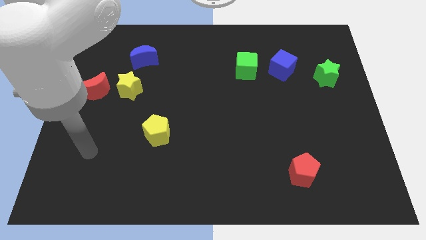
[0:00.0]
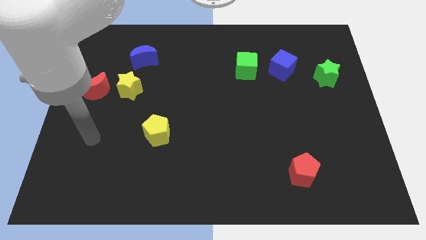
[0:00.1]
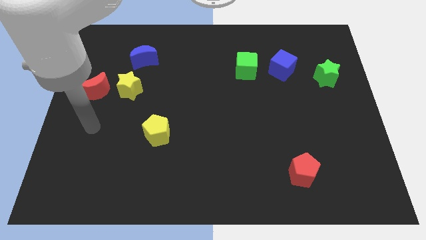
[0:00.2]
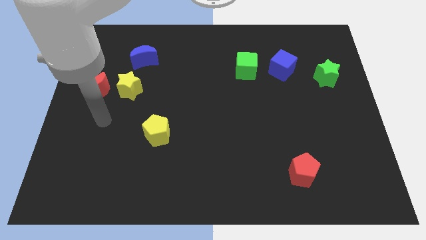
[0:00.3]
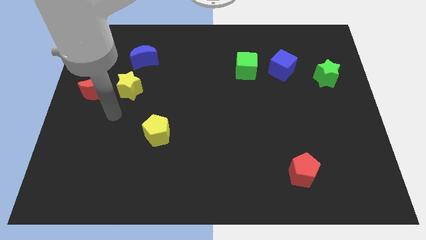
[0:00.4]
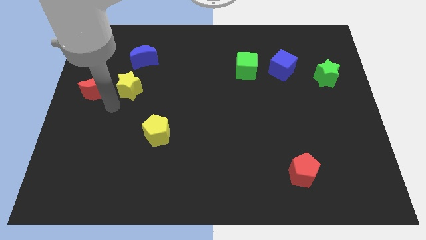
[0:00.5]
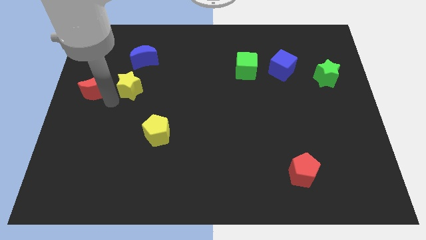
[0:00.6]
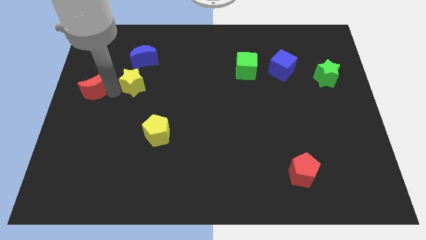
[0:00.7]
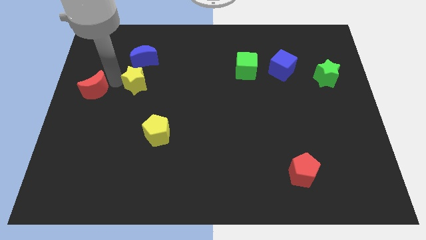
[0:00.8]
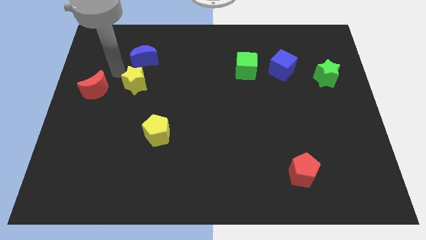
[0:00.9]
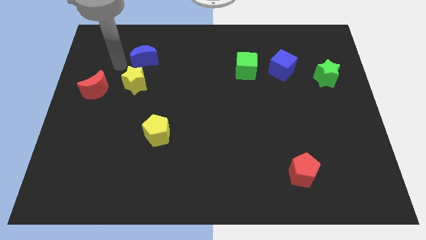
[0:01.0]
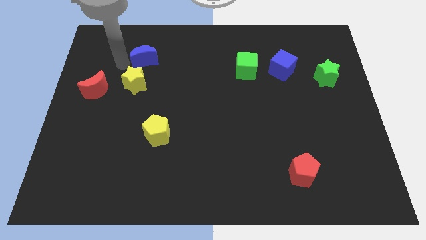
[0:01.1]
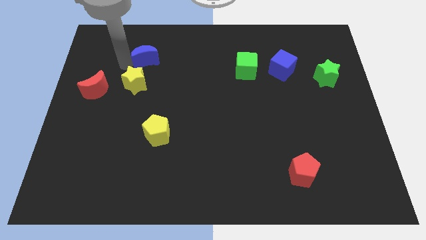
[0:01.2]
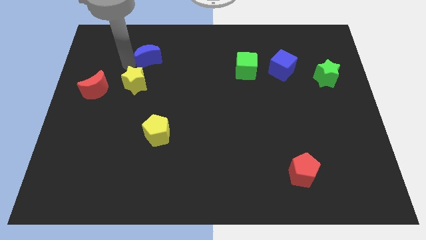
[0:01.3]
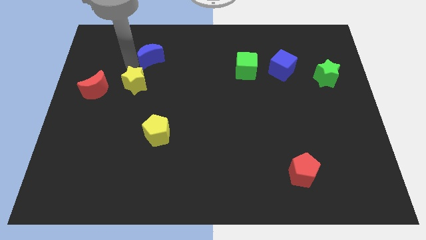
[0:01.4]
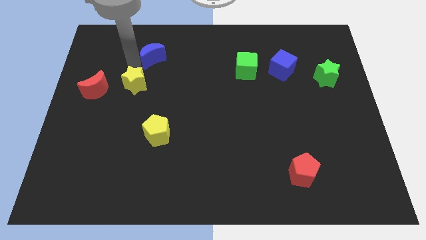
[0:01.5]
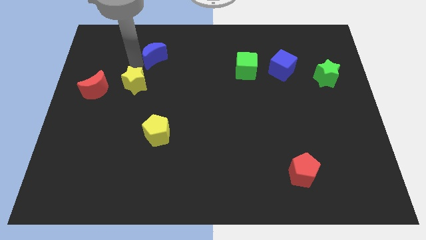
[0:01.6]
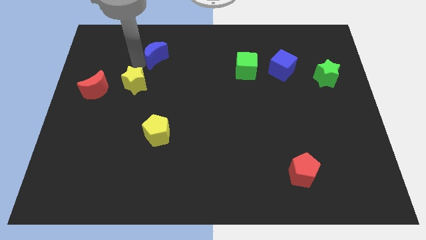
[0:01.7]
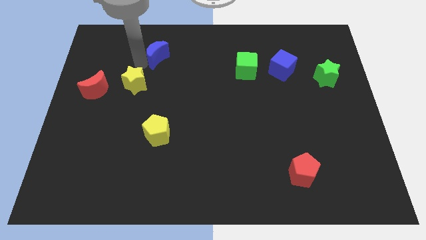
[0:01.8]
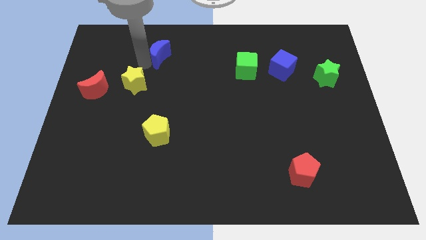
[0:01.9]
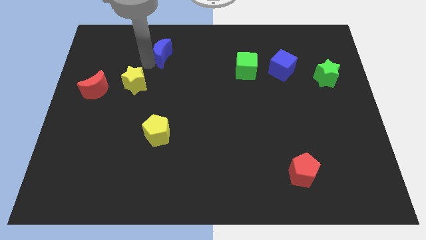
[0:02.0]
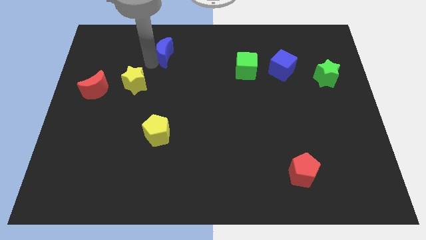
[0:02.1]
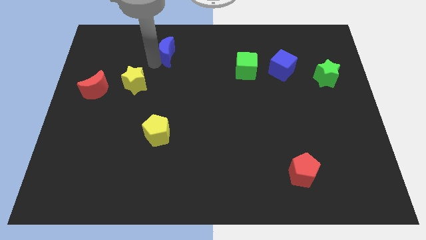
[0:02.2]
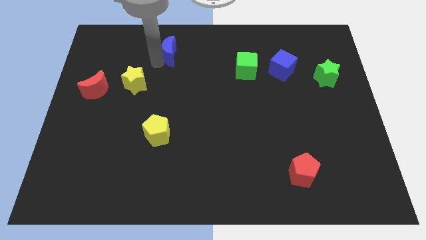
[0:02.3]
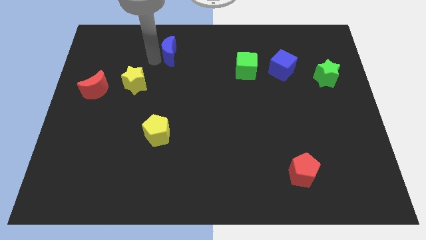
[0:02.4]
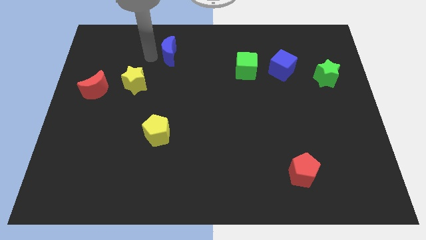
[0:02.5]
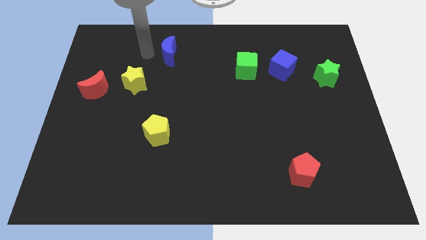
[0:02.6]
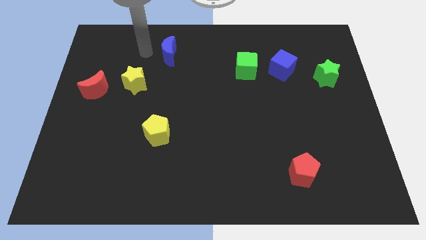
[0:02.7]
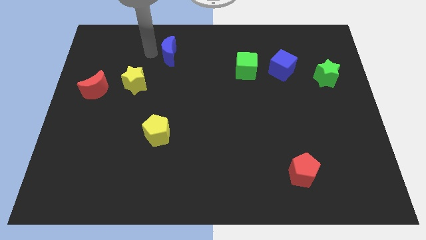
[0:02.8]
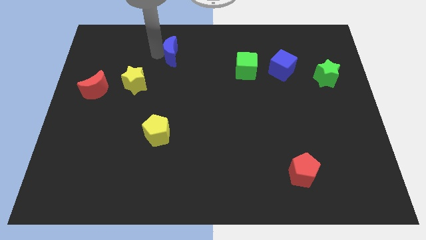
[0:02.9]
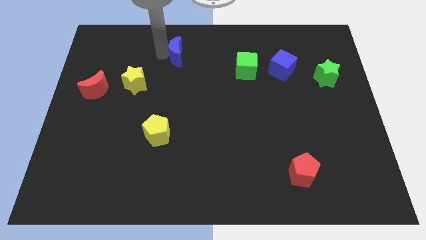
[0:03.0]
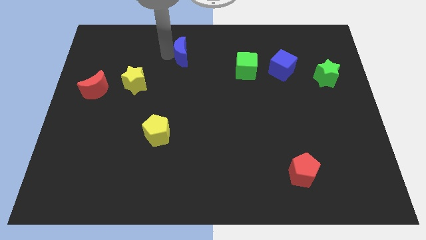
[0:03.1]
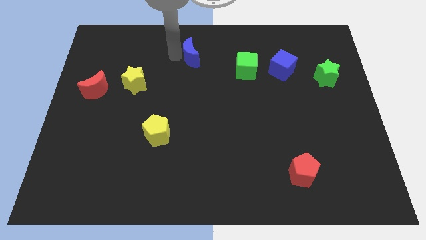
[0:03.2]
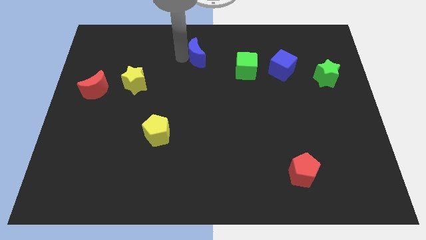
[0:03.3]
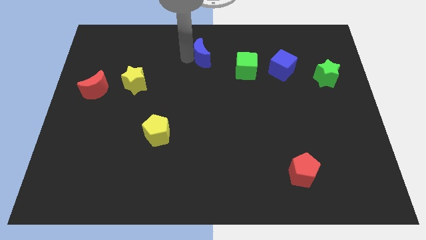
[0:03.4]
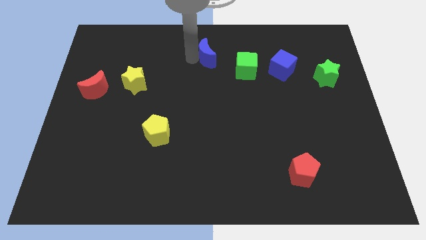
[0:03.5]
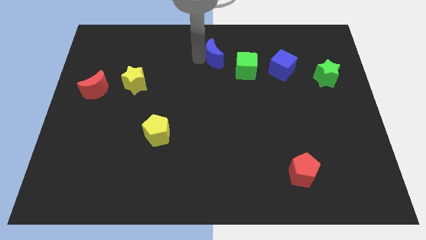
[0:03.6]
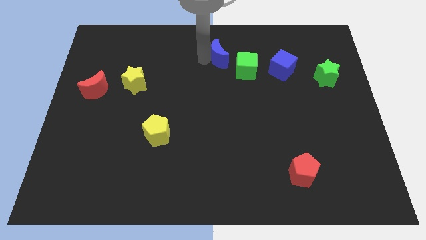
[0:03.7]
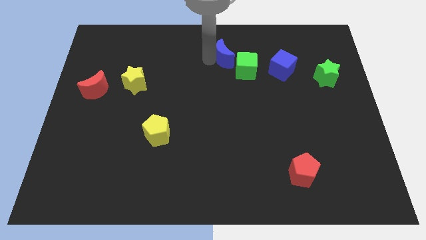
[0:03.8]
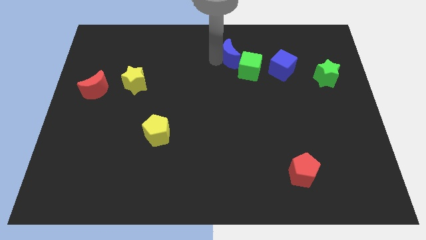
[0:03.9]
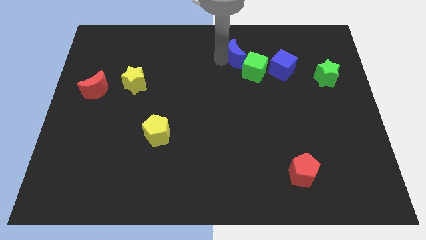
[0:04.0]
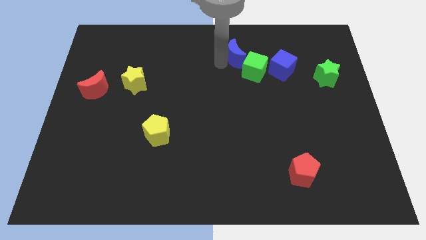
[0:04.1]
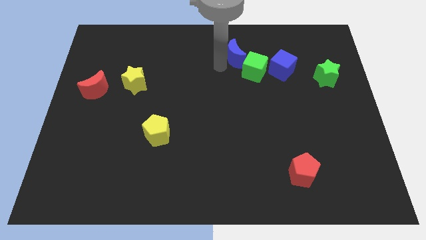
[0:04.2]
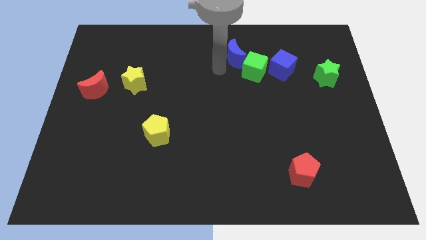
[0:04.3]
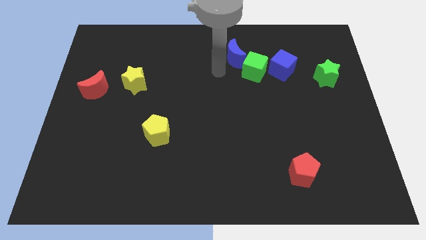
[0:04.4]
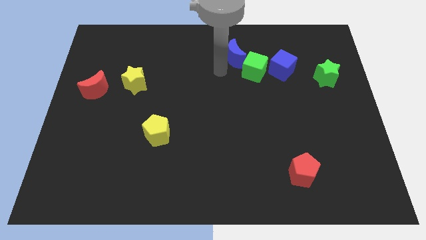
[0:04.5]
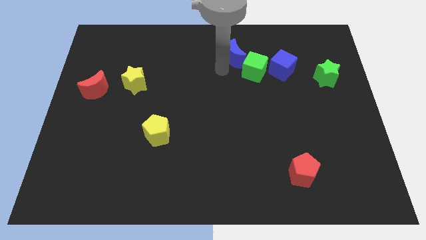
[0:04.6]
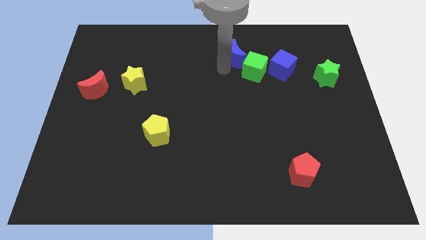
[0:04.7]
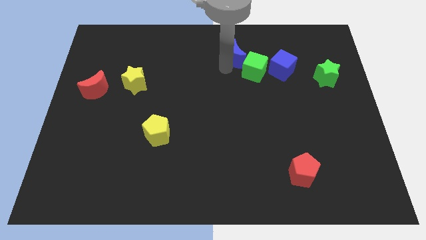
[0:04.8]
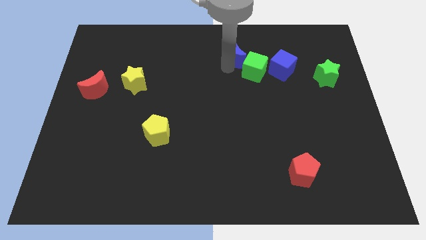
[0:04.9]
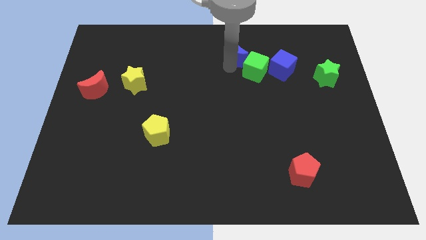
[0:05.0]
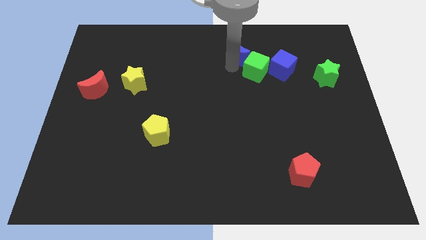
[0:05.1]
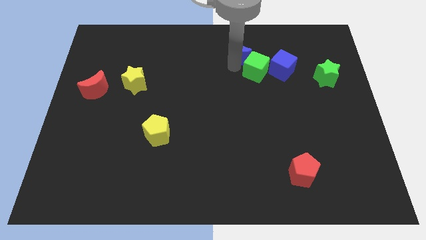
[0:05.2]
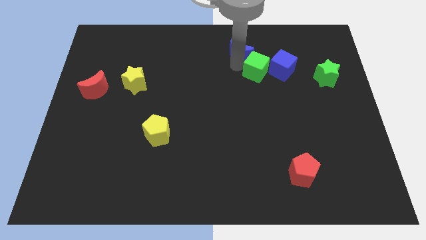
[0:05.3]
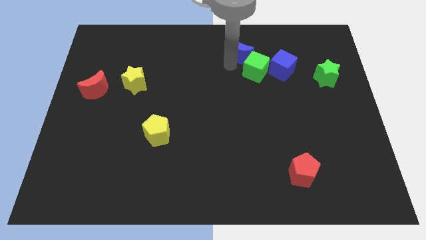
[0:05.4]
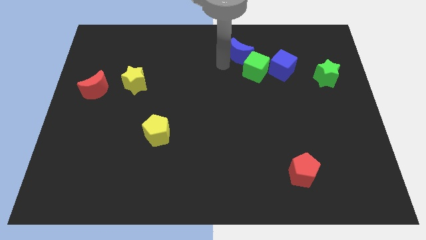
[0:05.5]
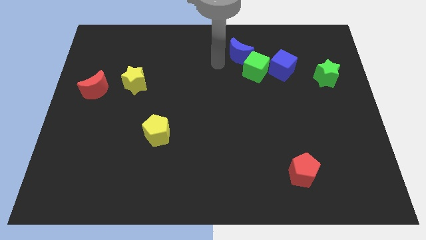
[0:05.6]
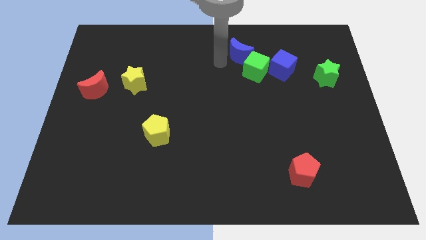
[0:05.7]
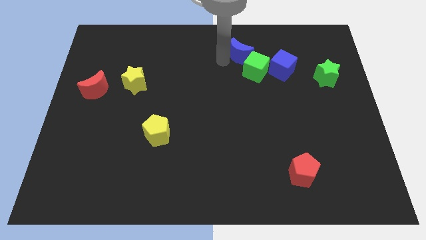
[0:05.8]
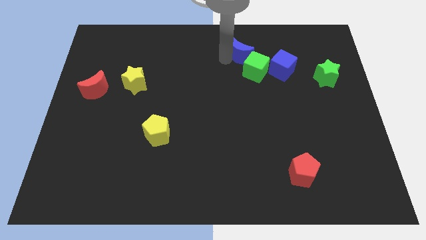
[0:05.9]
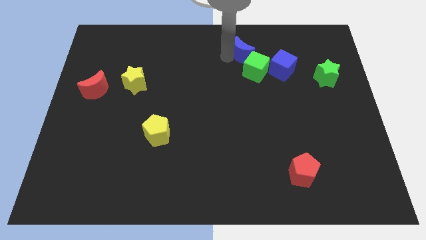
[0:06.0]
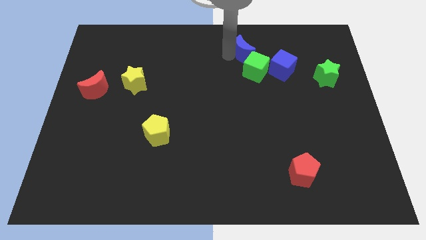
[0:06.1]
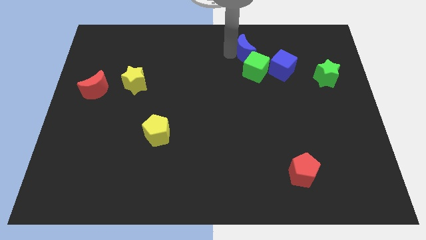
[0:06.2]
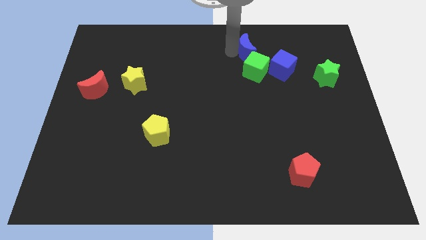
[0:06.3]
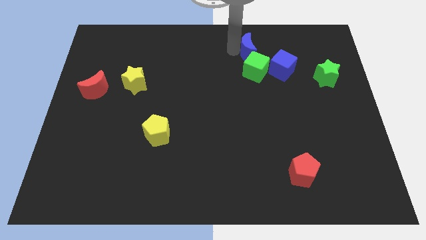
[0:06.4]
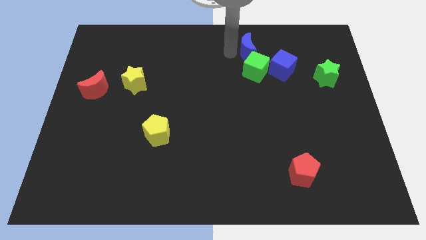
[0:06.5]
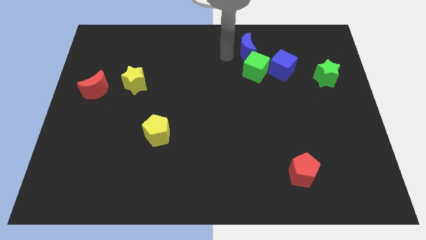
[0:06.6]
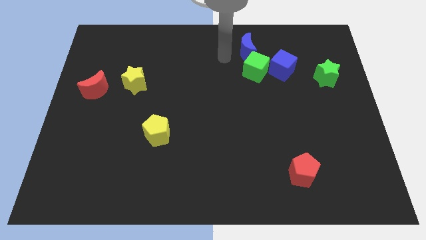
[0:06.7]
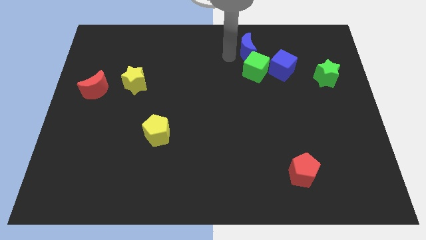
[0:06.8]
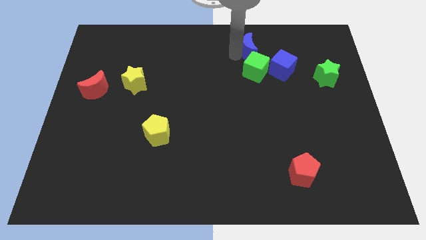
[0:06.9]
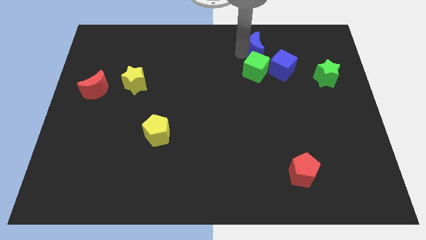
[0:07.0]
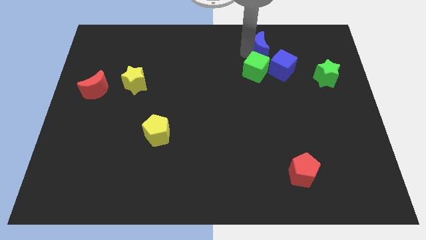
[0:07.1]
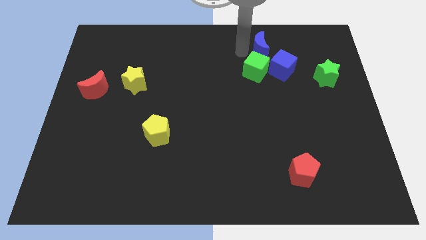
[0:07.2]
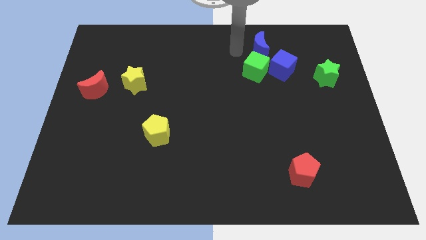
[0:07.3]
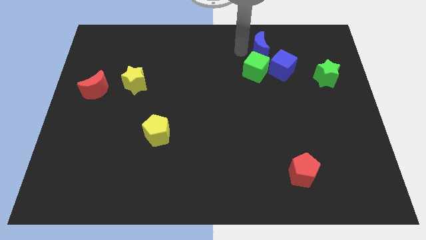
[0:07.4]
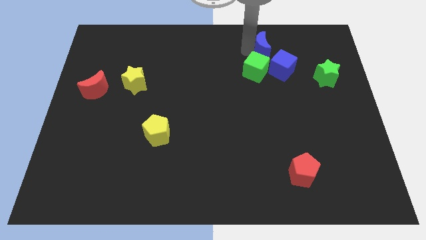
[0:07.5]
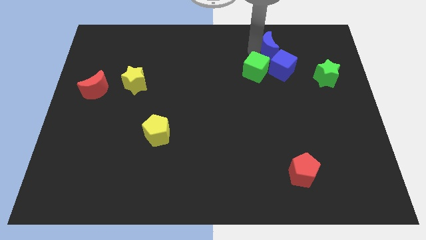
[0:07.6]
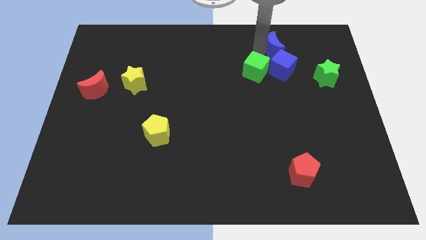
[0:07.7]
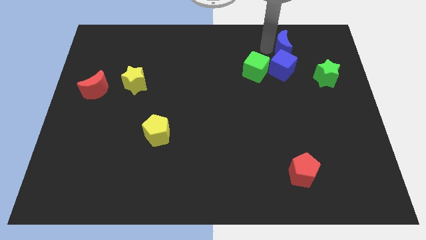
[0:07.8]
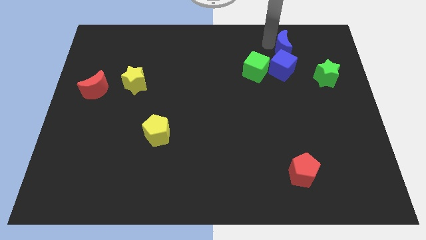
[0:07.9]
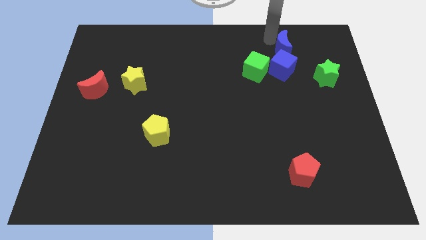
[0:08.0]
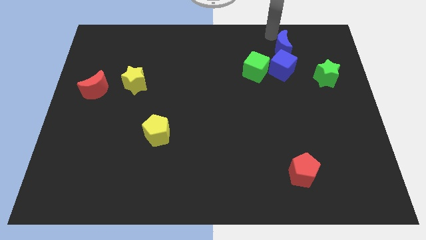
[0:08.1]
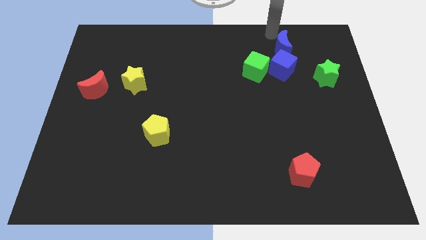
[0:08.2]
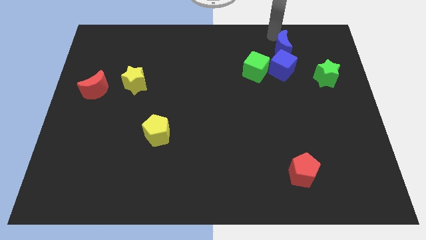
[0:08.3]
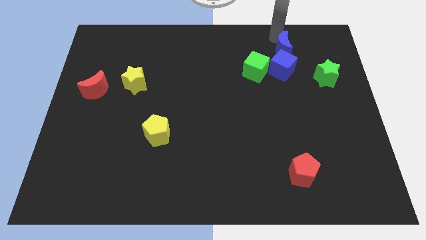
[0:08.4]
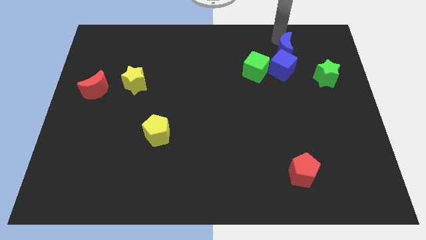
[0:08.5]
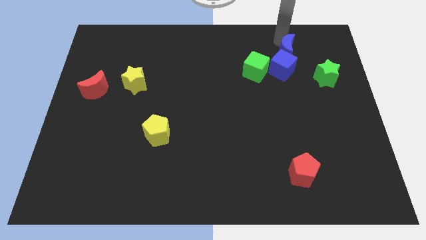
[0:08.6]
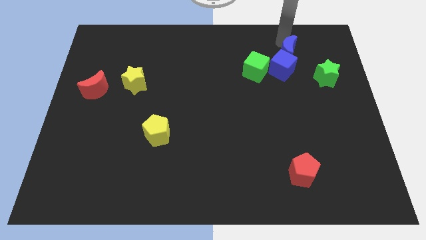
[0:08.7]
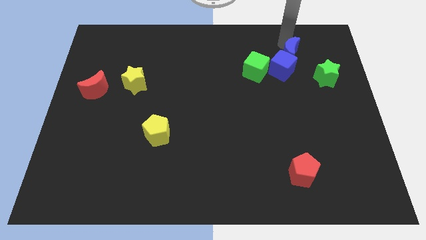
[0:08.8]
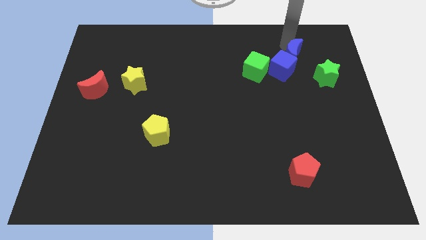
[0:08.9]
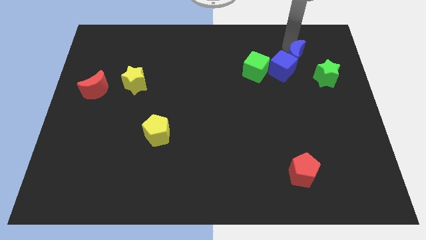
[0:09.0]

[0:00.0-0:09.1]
put the blue moon to the right side of the green cube
